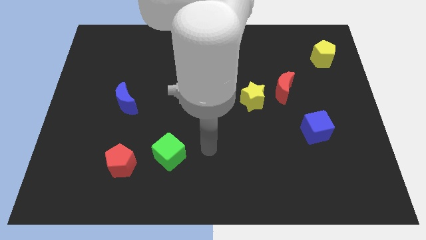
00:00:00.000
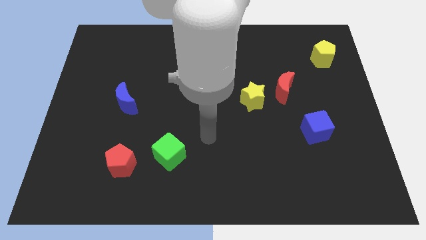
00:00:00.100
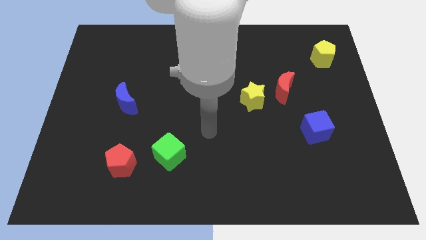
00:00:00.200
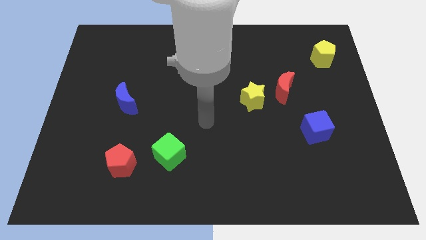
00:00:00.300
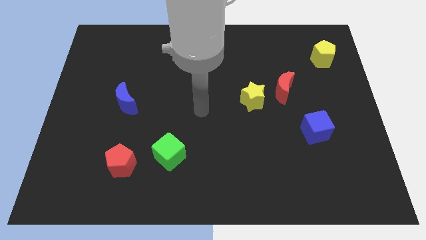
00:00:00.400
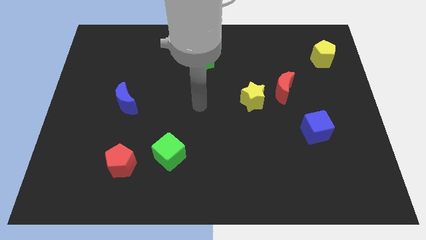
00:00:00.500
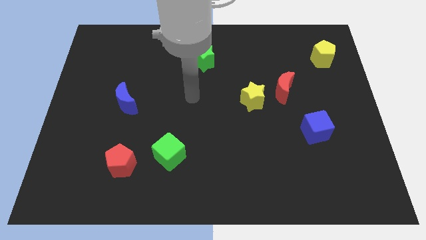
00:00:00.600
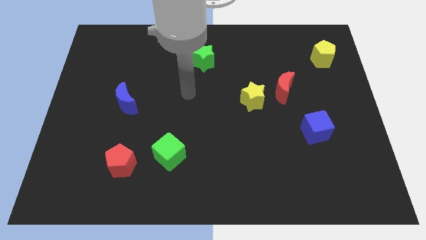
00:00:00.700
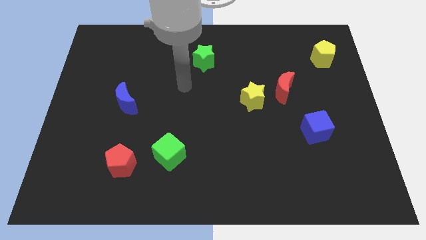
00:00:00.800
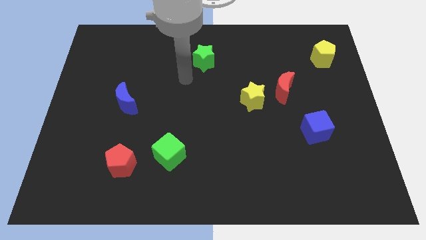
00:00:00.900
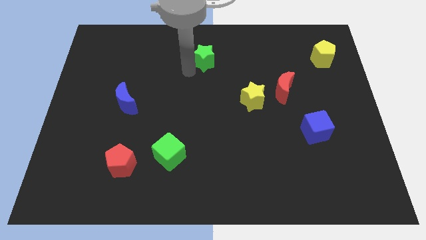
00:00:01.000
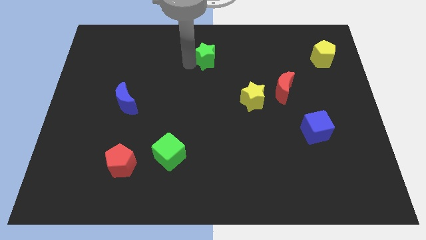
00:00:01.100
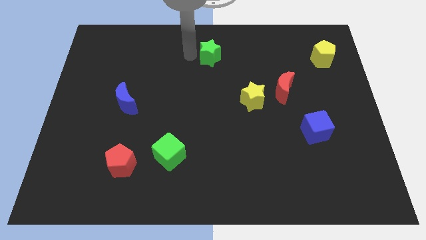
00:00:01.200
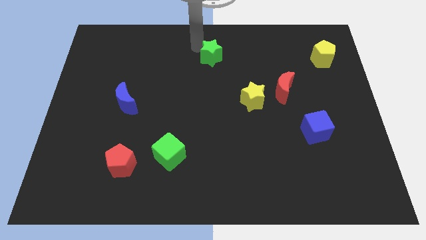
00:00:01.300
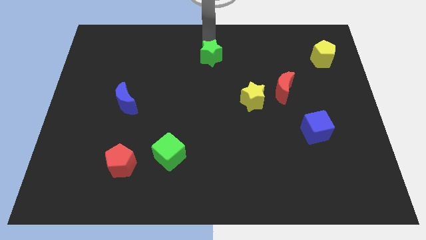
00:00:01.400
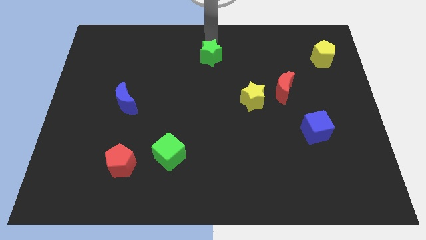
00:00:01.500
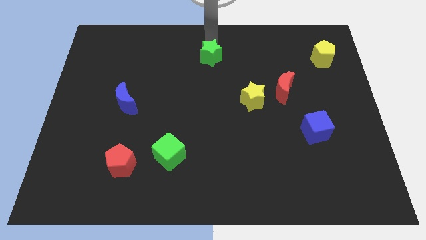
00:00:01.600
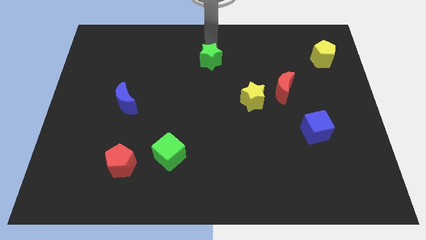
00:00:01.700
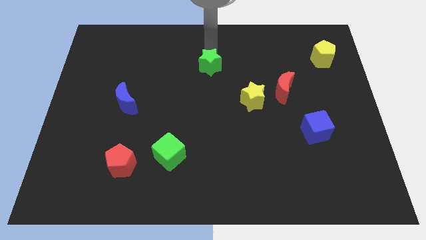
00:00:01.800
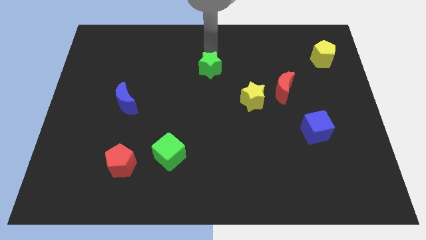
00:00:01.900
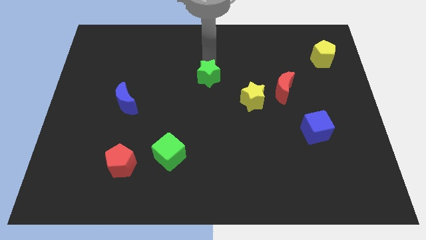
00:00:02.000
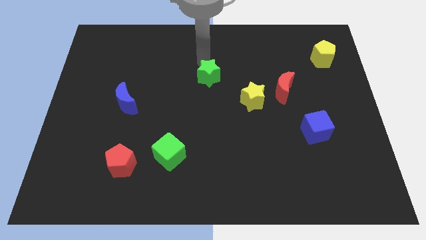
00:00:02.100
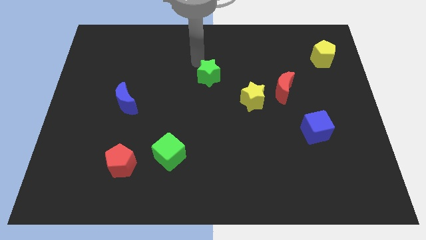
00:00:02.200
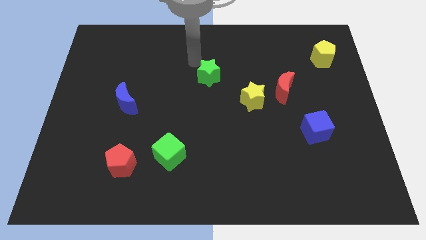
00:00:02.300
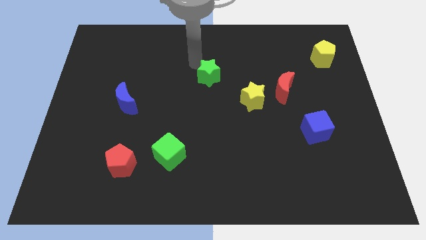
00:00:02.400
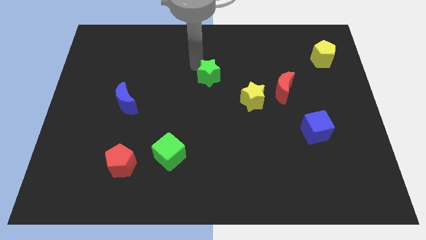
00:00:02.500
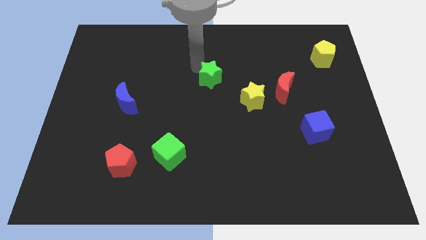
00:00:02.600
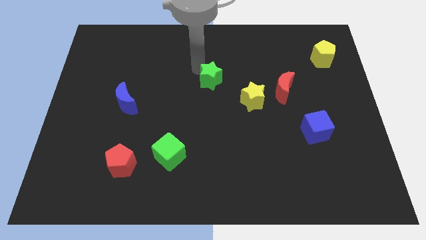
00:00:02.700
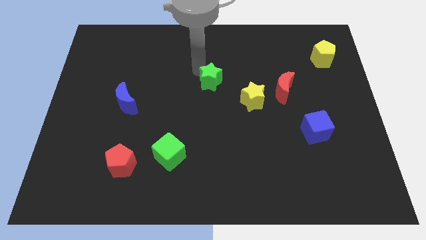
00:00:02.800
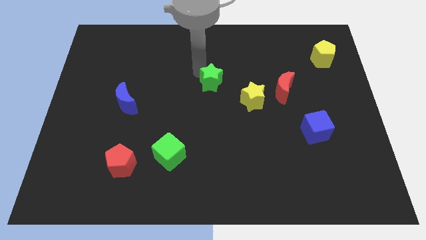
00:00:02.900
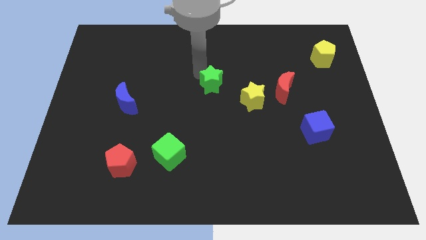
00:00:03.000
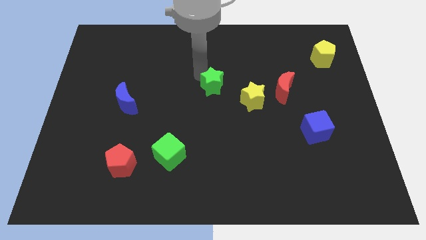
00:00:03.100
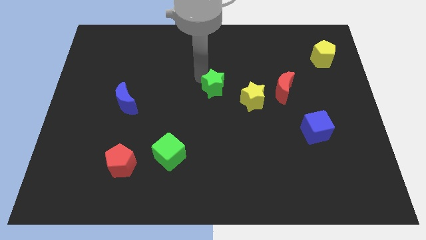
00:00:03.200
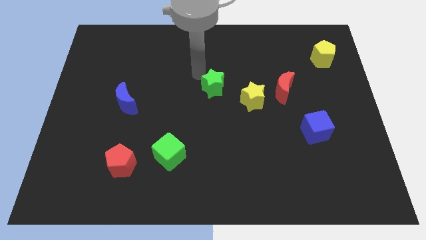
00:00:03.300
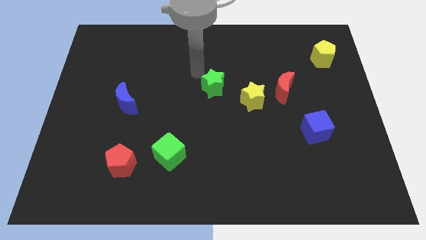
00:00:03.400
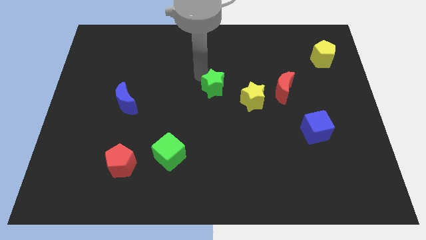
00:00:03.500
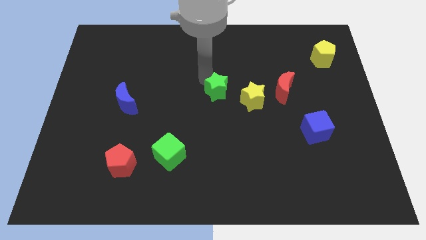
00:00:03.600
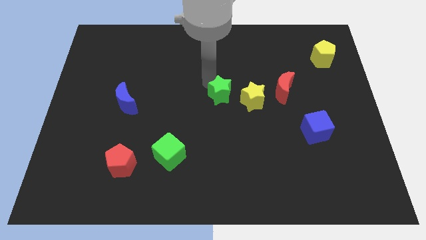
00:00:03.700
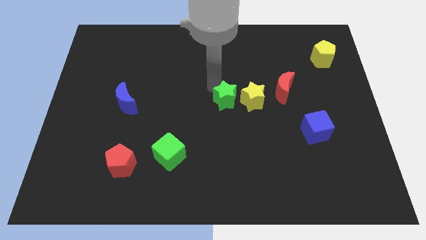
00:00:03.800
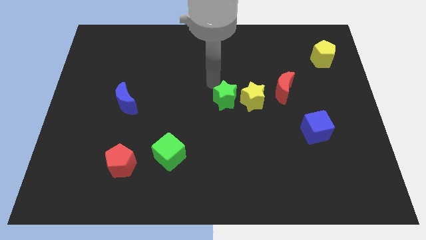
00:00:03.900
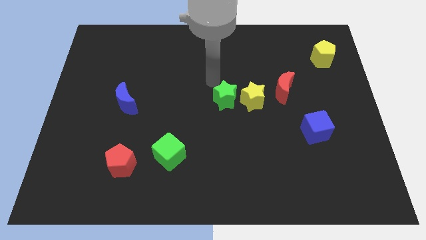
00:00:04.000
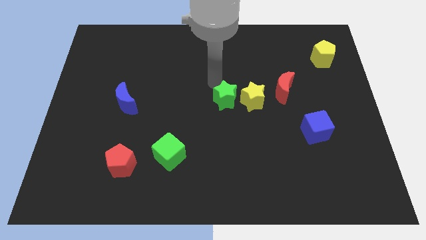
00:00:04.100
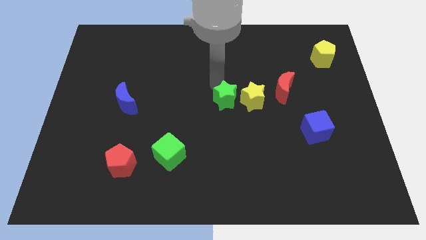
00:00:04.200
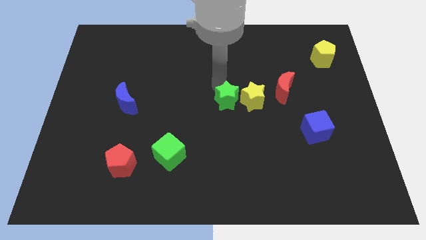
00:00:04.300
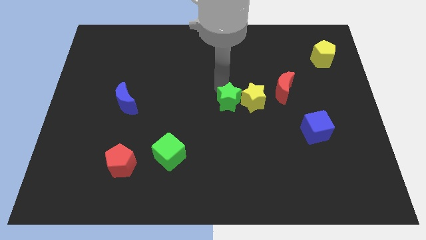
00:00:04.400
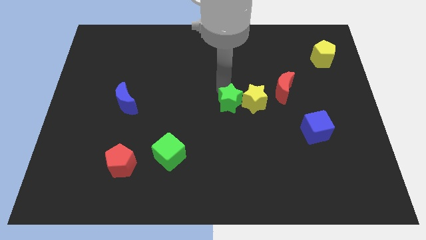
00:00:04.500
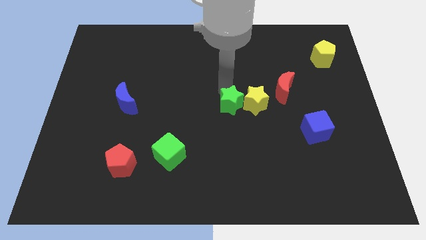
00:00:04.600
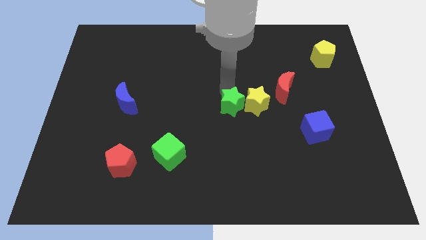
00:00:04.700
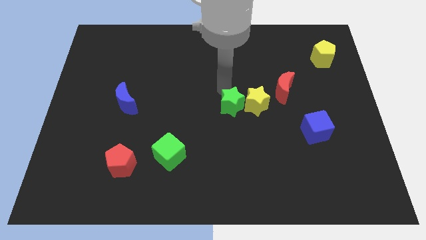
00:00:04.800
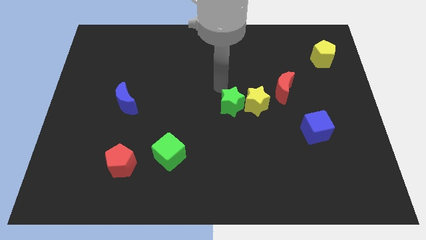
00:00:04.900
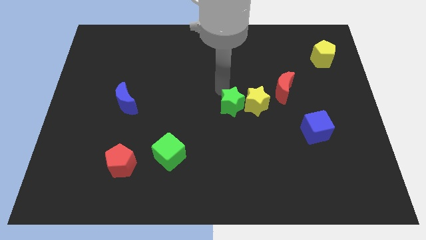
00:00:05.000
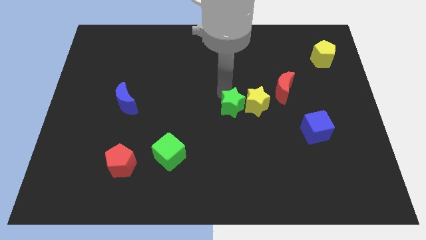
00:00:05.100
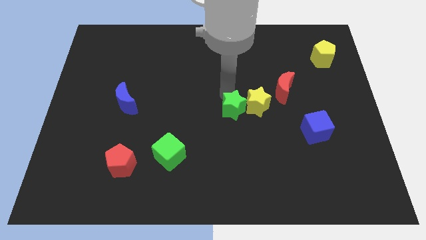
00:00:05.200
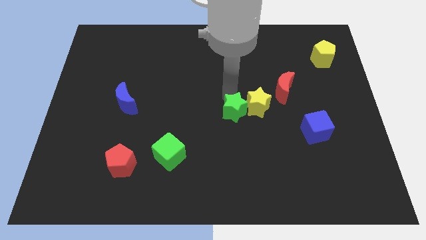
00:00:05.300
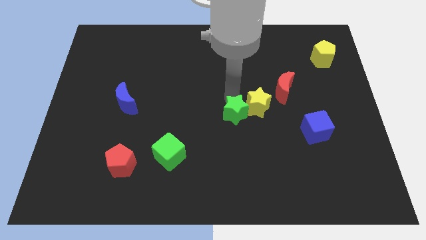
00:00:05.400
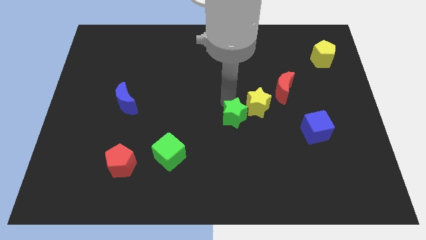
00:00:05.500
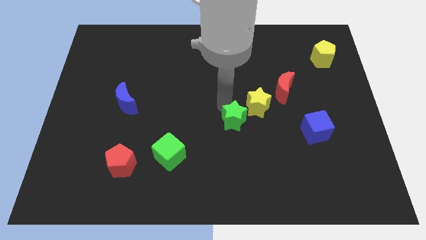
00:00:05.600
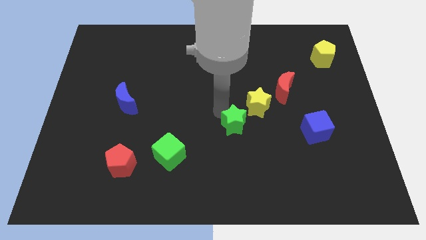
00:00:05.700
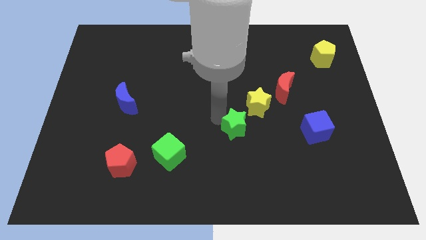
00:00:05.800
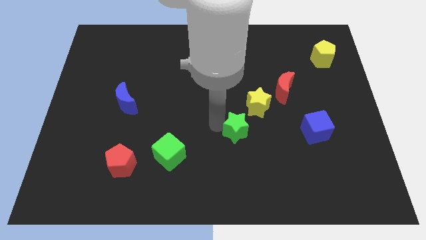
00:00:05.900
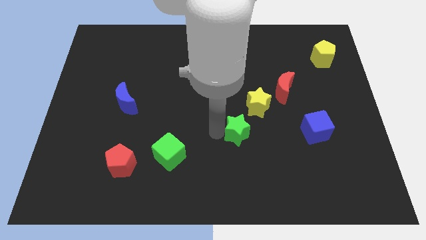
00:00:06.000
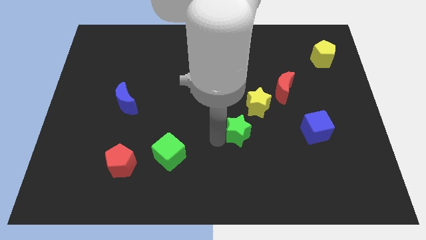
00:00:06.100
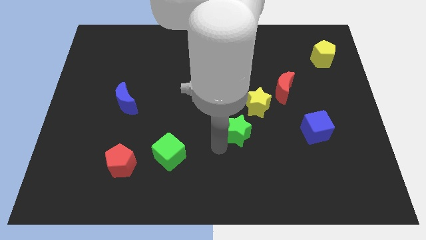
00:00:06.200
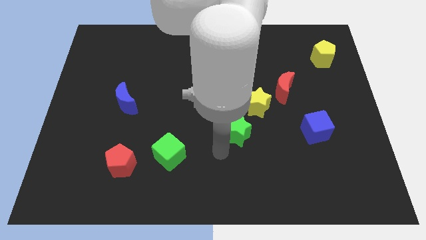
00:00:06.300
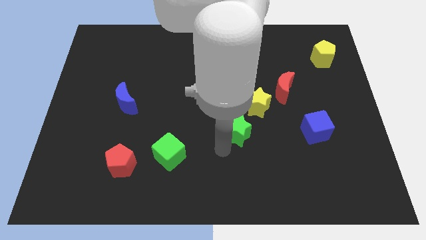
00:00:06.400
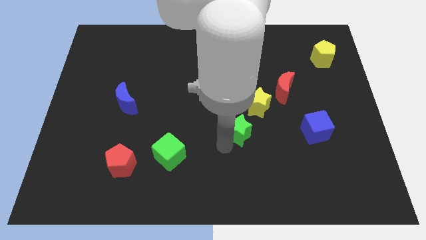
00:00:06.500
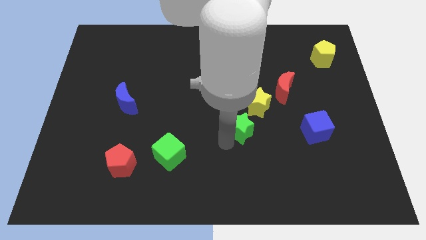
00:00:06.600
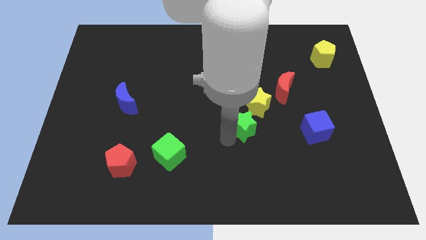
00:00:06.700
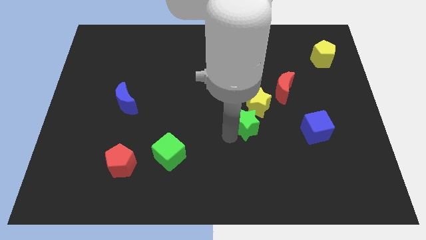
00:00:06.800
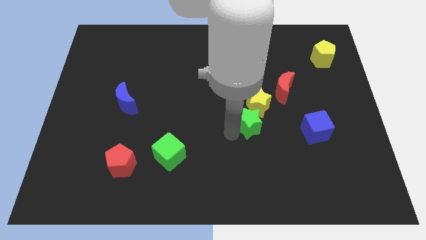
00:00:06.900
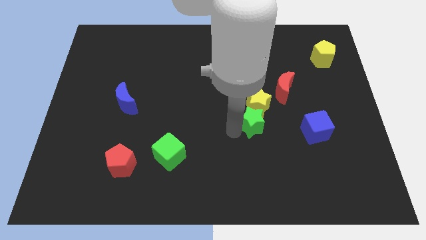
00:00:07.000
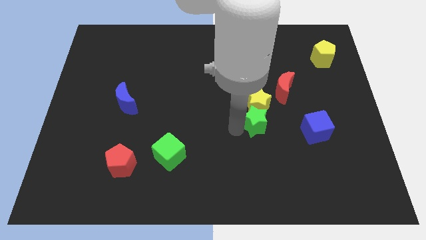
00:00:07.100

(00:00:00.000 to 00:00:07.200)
move the green star diagonally down and to the left of the red moon
